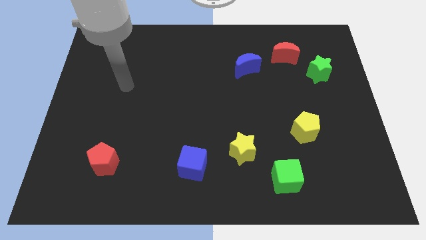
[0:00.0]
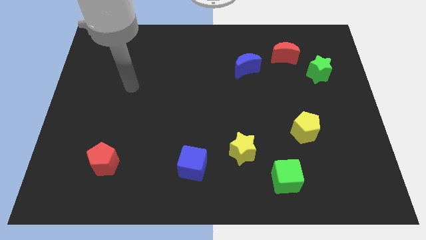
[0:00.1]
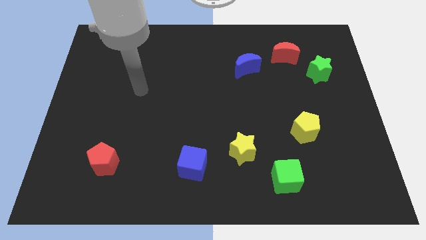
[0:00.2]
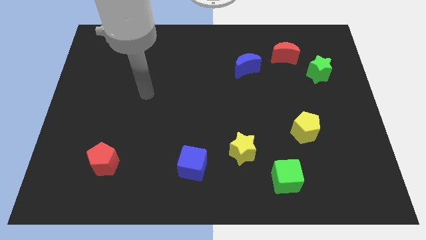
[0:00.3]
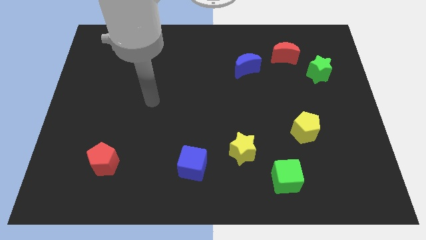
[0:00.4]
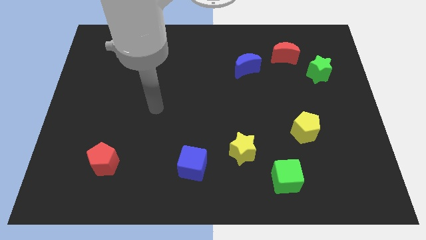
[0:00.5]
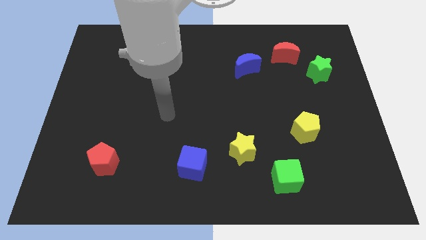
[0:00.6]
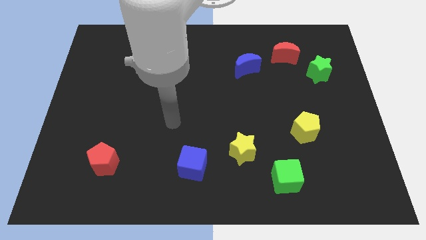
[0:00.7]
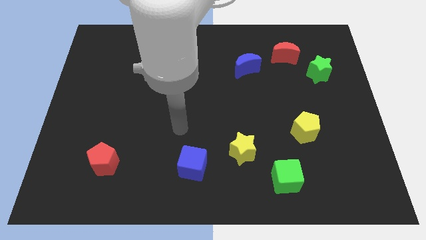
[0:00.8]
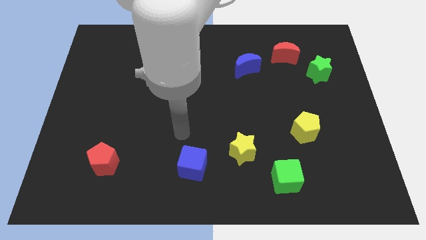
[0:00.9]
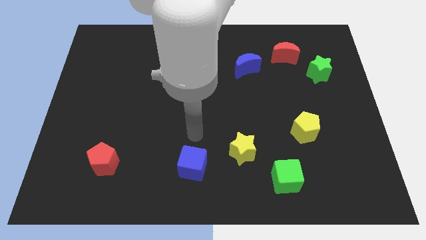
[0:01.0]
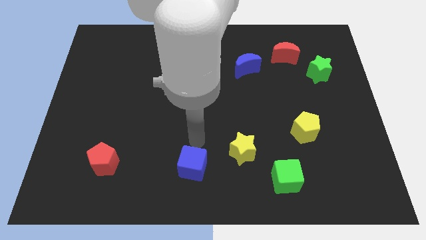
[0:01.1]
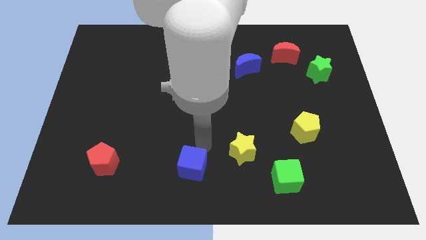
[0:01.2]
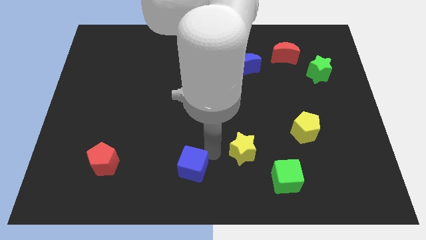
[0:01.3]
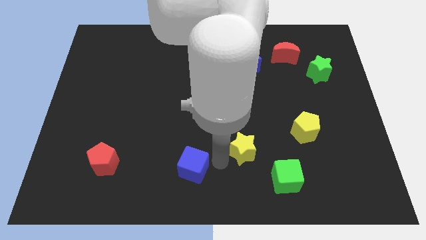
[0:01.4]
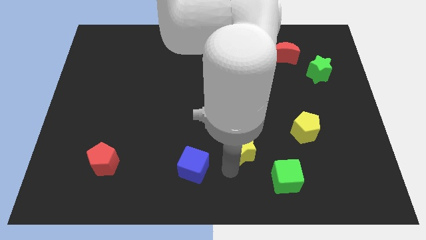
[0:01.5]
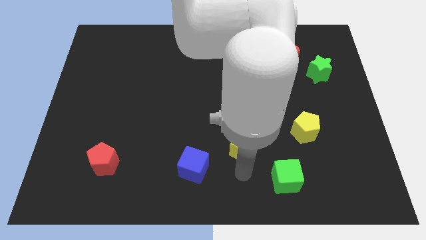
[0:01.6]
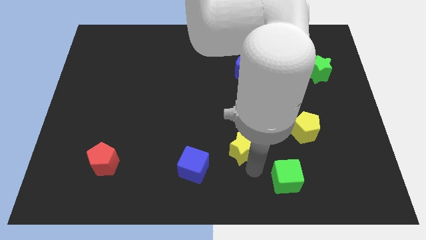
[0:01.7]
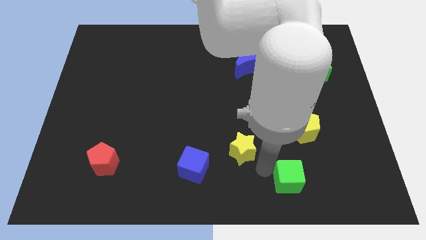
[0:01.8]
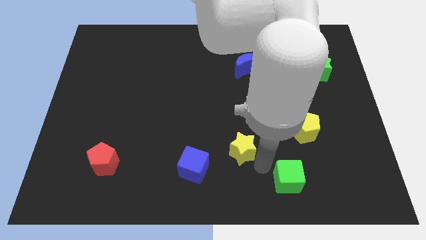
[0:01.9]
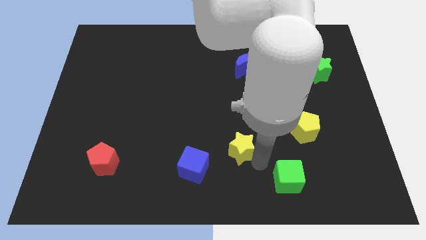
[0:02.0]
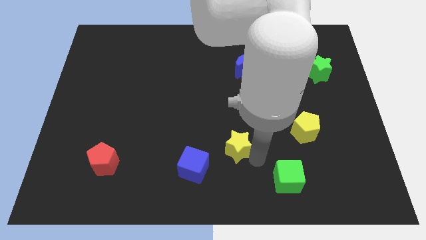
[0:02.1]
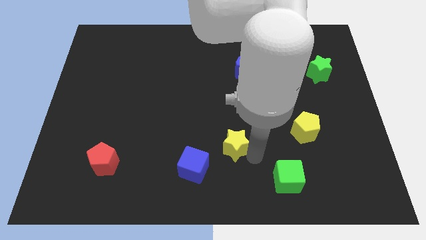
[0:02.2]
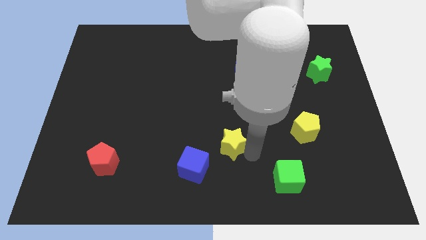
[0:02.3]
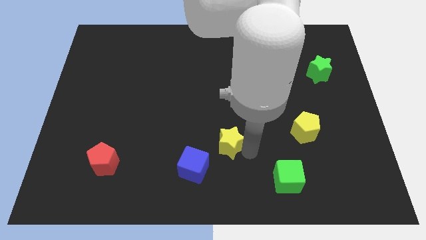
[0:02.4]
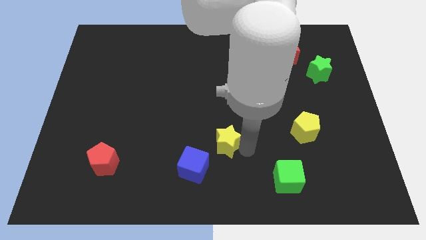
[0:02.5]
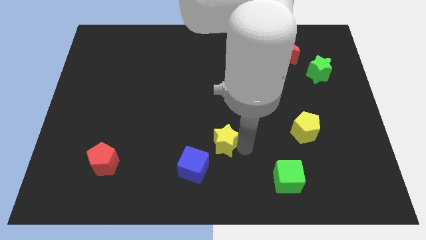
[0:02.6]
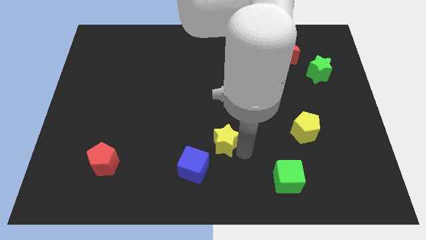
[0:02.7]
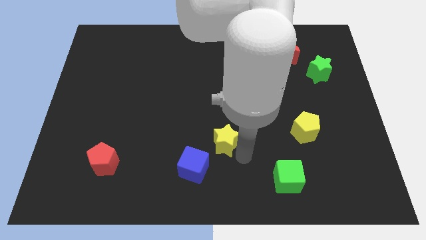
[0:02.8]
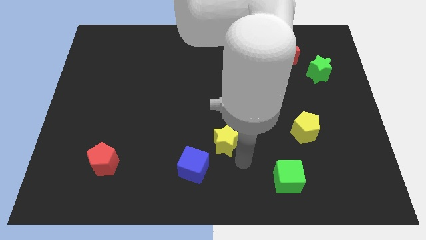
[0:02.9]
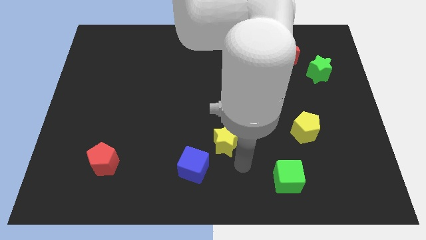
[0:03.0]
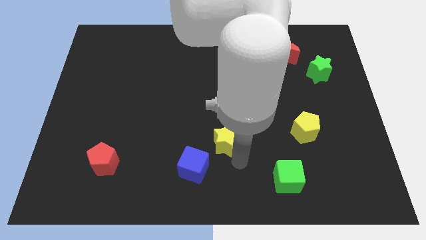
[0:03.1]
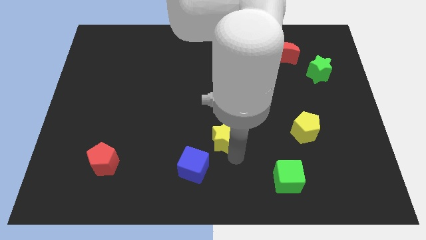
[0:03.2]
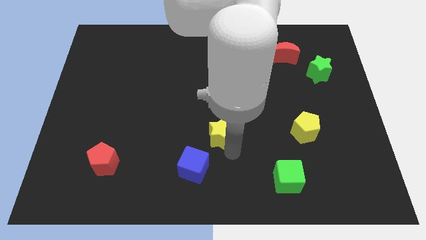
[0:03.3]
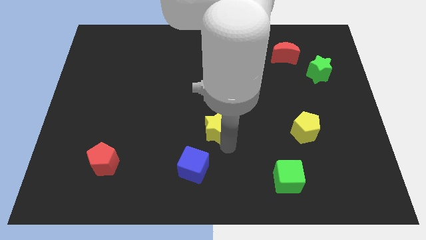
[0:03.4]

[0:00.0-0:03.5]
move the yellow star slightly upwards and then left

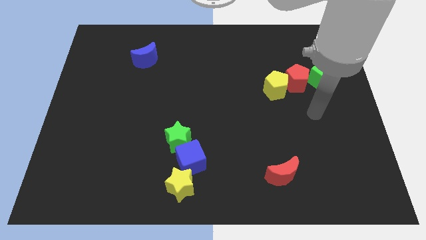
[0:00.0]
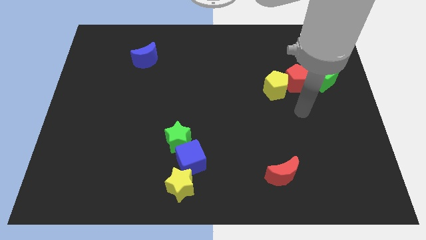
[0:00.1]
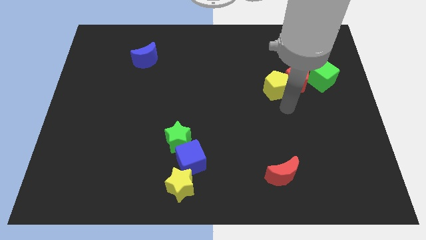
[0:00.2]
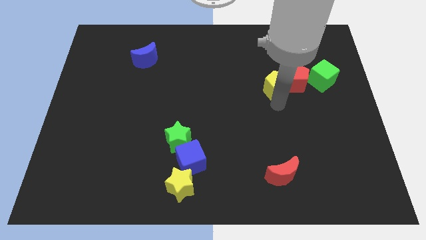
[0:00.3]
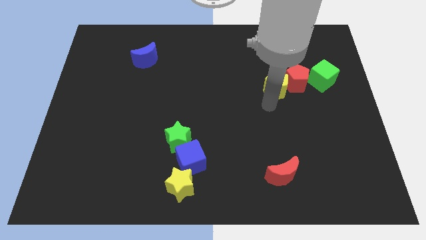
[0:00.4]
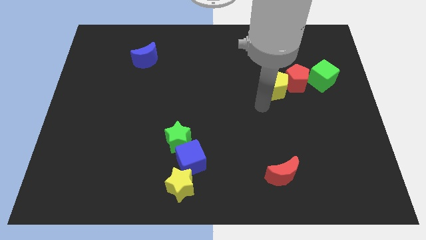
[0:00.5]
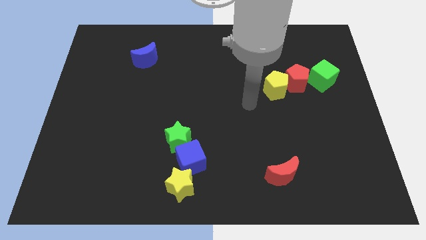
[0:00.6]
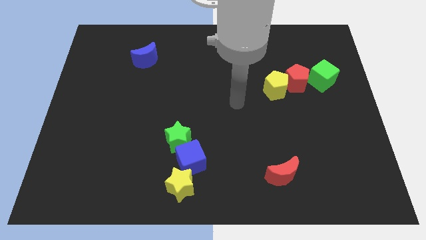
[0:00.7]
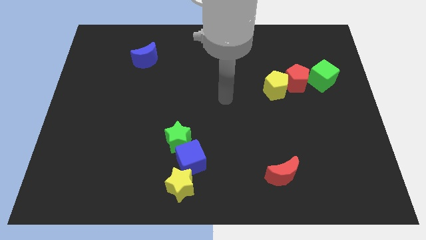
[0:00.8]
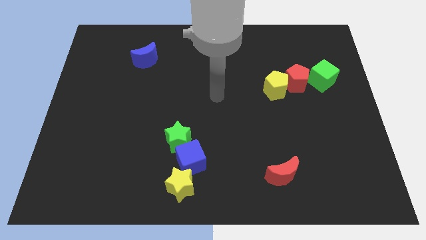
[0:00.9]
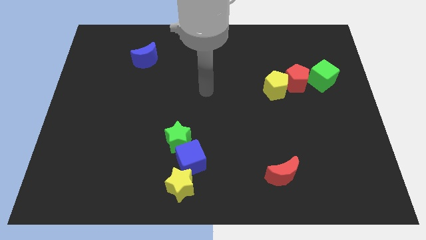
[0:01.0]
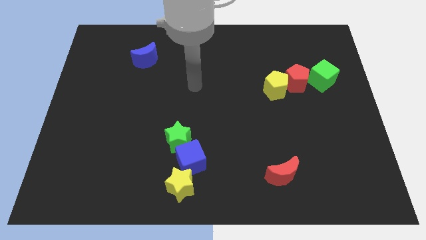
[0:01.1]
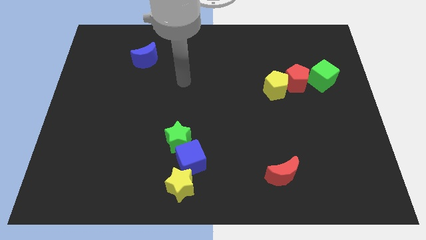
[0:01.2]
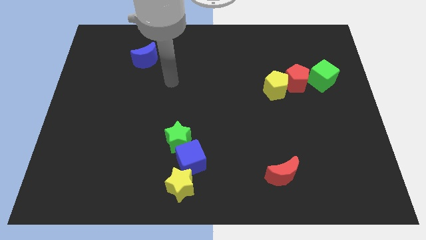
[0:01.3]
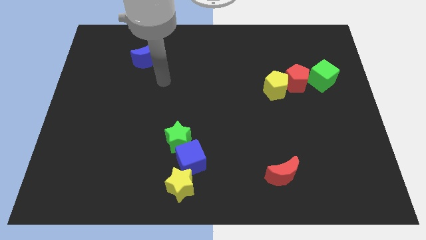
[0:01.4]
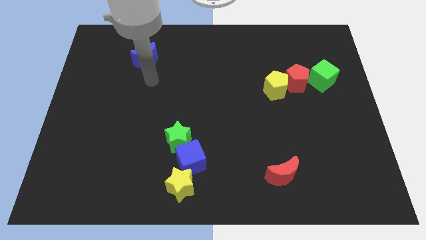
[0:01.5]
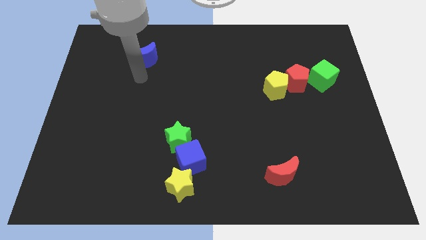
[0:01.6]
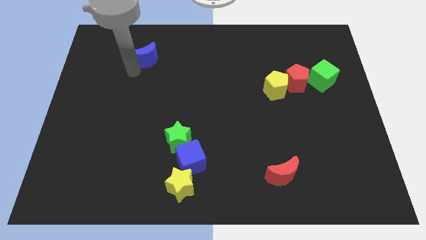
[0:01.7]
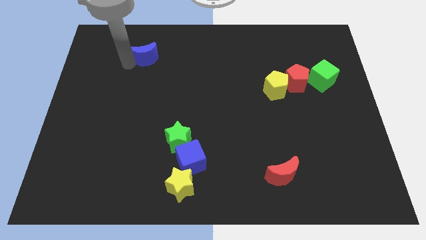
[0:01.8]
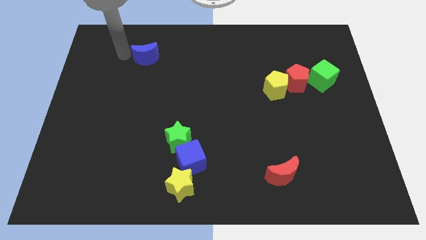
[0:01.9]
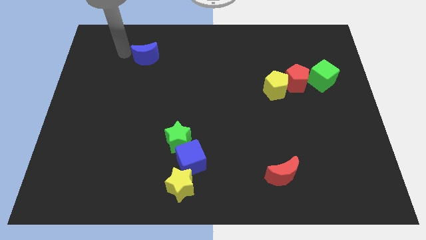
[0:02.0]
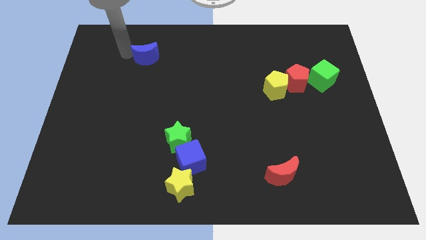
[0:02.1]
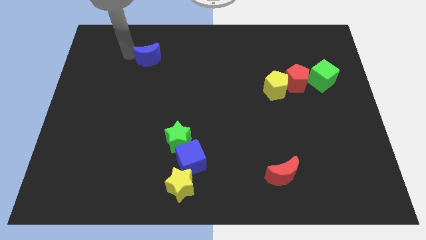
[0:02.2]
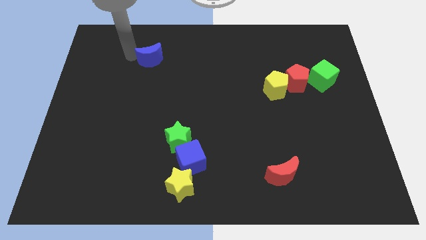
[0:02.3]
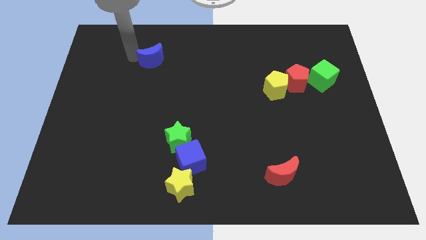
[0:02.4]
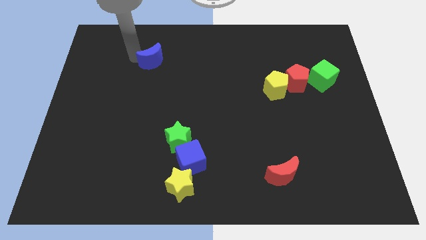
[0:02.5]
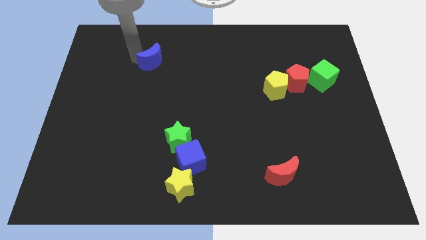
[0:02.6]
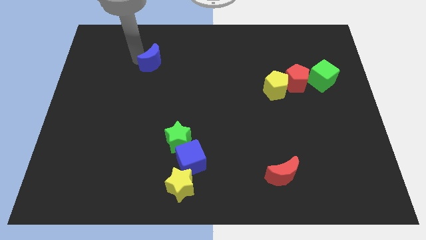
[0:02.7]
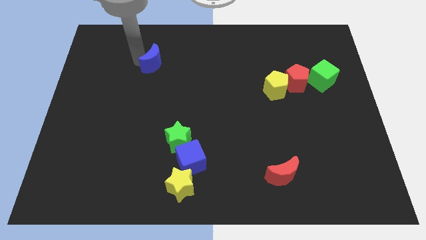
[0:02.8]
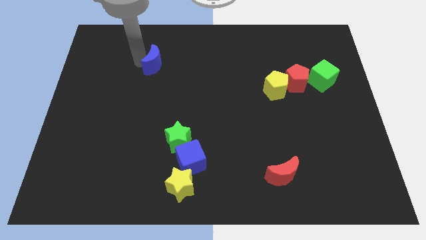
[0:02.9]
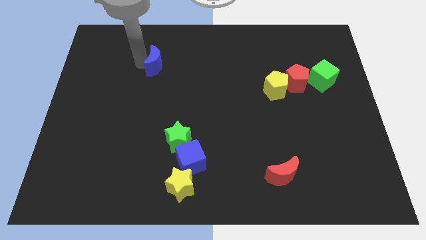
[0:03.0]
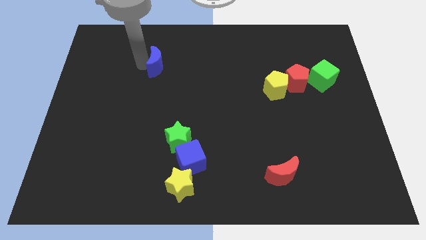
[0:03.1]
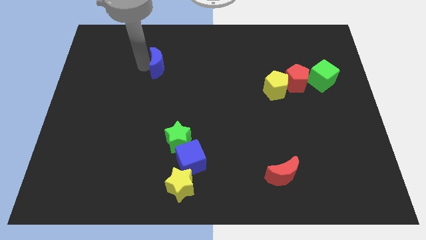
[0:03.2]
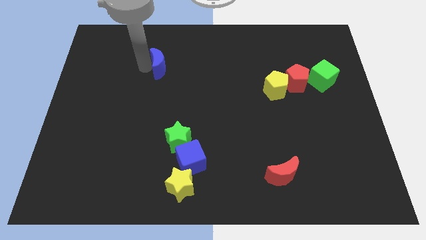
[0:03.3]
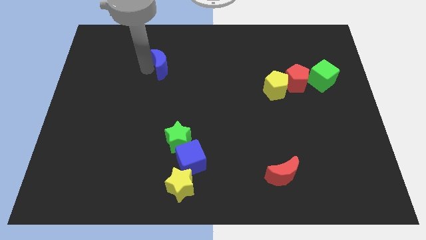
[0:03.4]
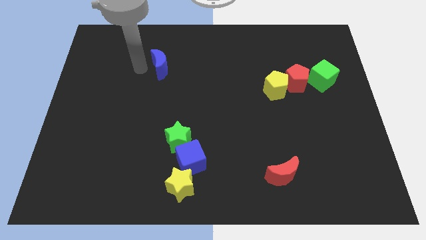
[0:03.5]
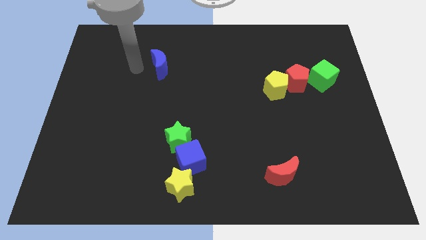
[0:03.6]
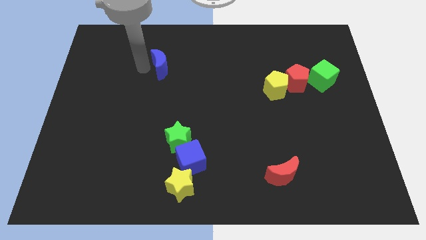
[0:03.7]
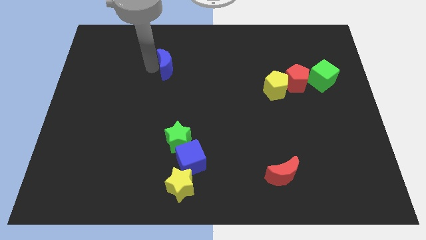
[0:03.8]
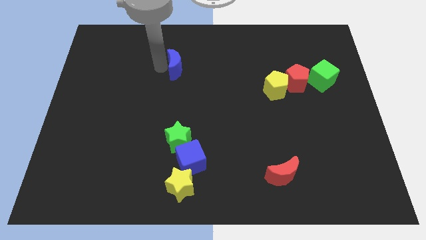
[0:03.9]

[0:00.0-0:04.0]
slightly move the blue moon to the right

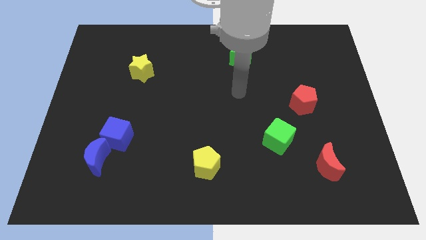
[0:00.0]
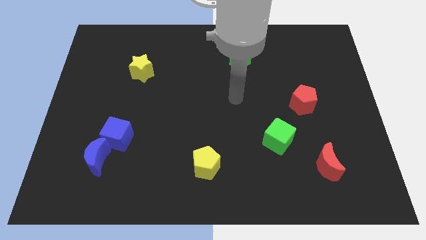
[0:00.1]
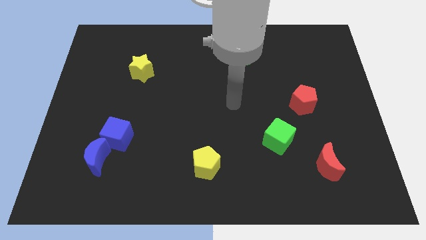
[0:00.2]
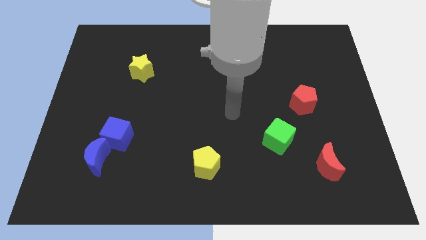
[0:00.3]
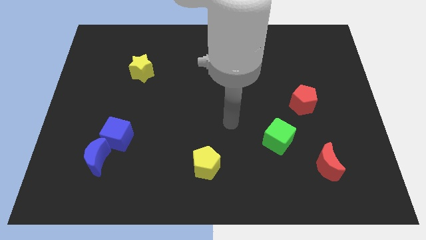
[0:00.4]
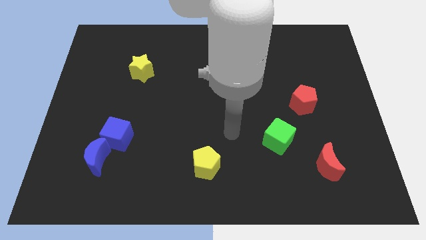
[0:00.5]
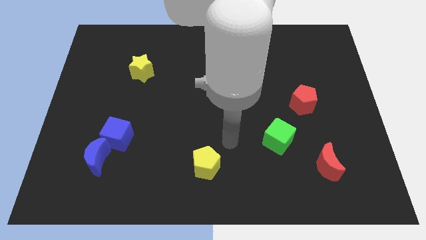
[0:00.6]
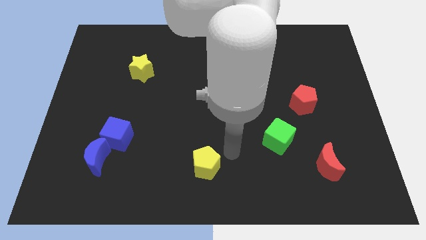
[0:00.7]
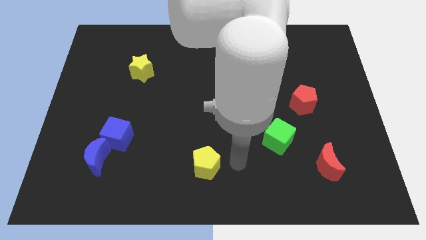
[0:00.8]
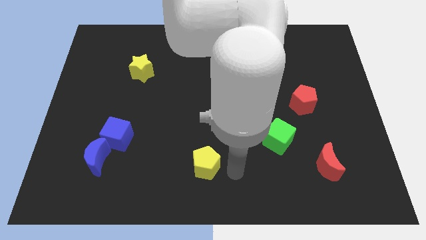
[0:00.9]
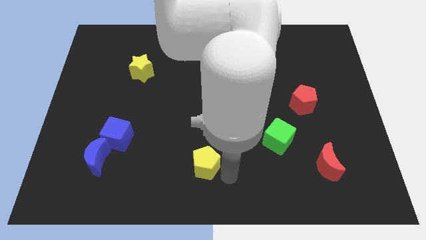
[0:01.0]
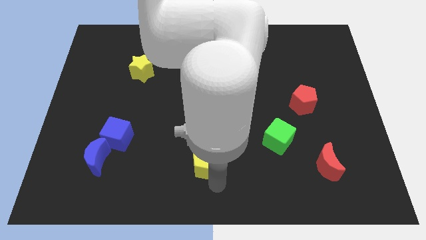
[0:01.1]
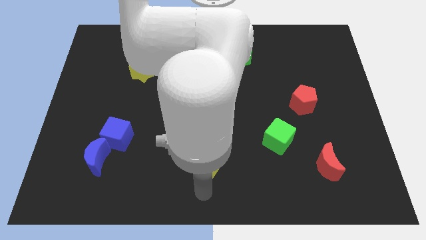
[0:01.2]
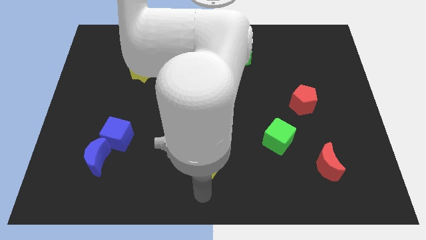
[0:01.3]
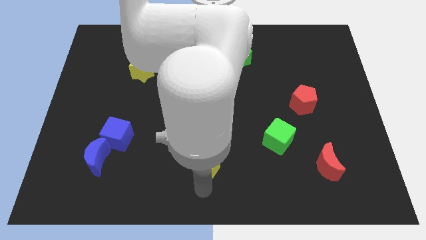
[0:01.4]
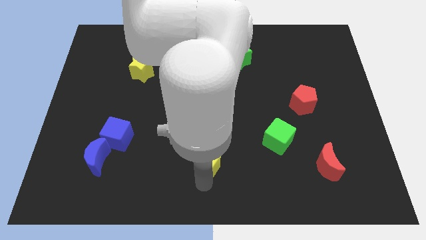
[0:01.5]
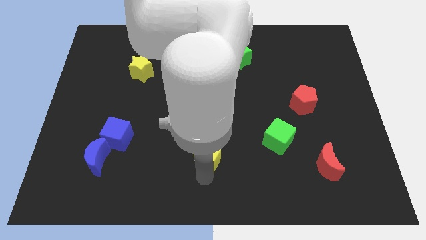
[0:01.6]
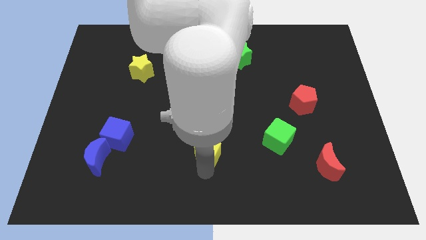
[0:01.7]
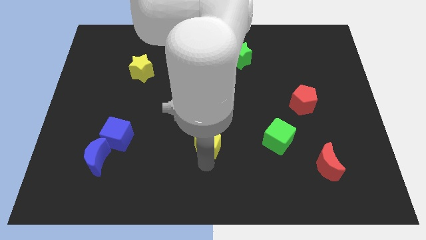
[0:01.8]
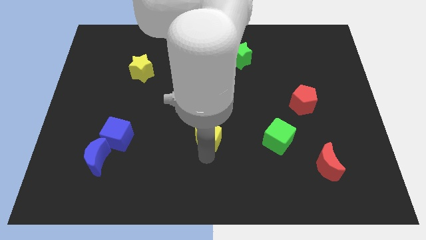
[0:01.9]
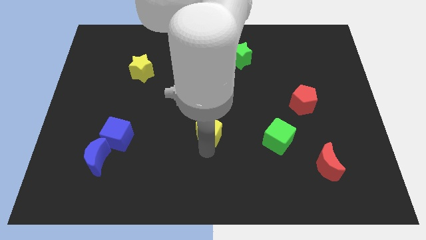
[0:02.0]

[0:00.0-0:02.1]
slightly slide the yellow pentagon up
